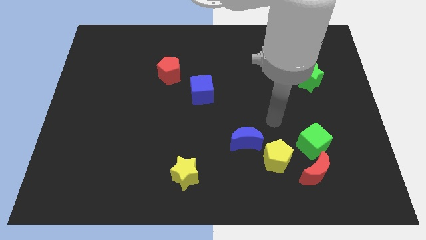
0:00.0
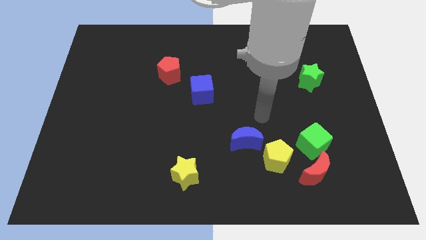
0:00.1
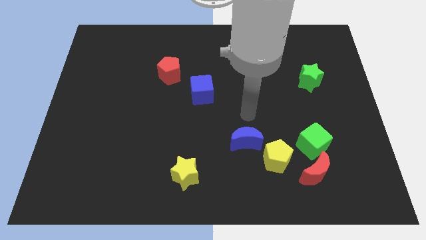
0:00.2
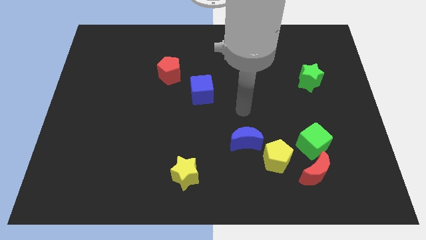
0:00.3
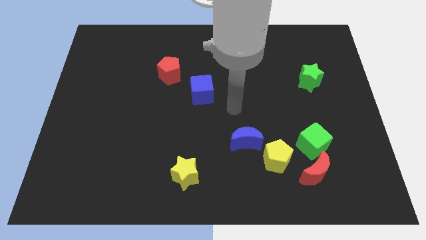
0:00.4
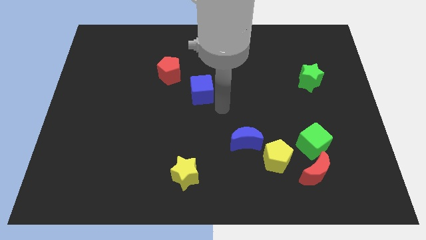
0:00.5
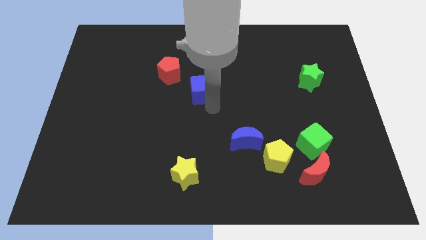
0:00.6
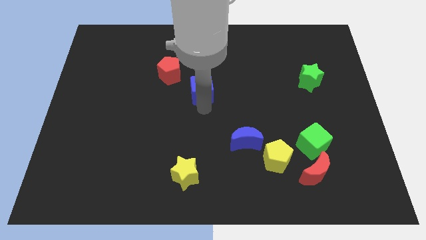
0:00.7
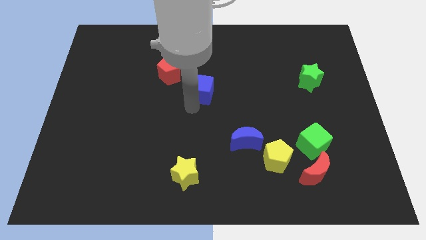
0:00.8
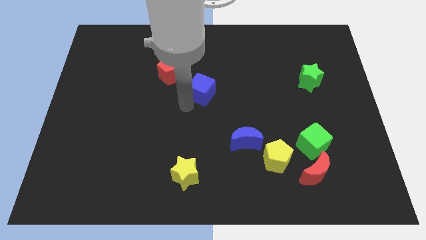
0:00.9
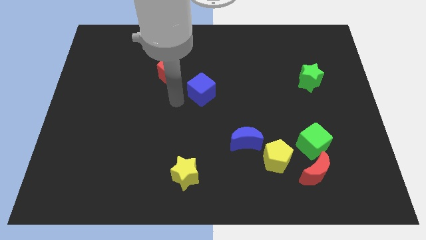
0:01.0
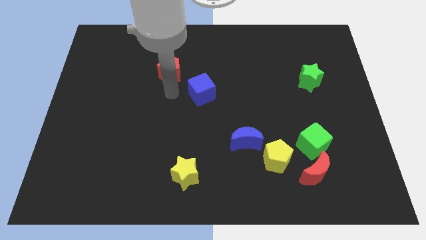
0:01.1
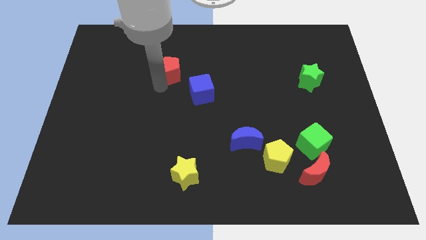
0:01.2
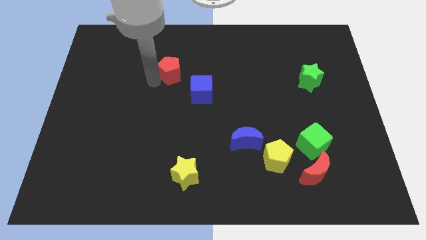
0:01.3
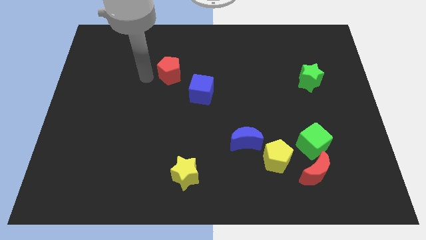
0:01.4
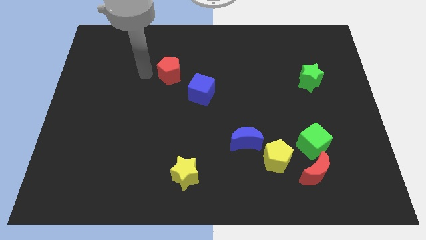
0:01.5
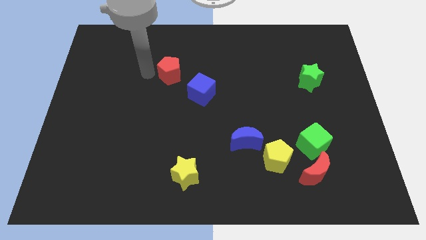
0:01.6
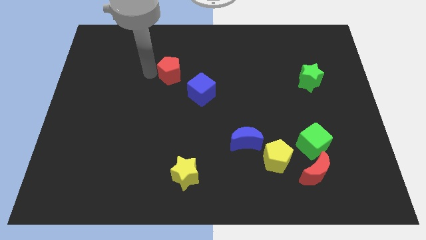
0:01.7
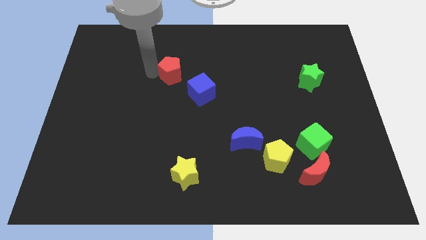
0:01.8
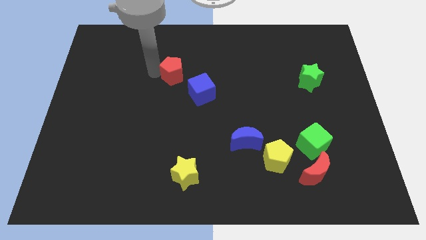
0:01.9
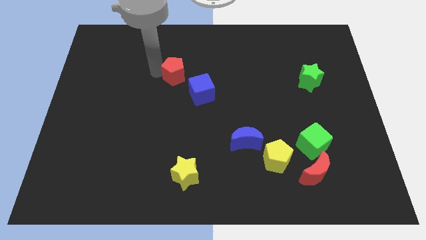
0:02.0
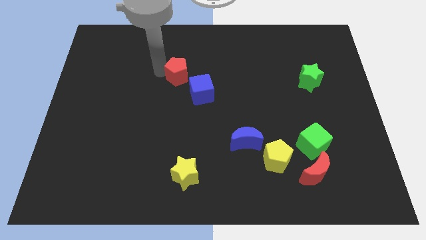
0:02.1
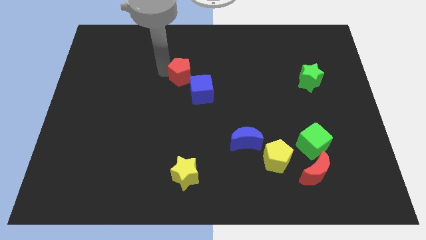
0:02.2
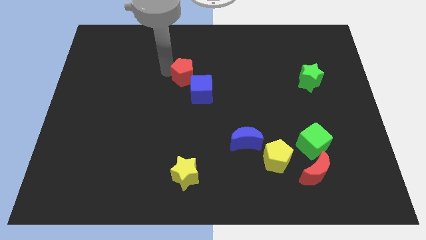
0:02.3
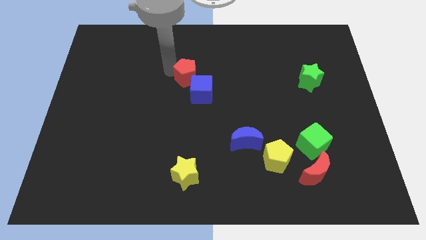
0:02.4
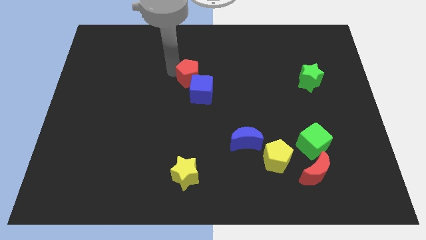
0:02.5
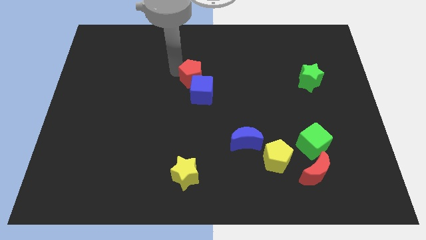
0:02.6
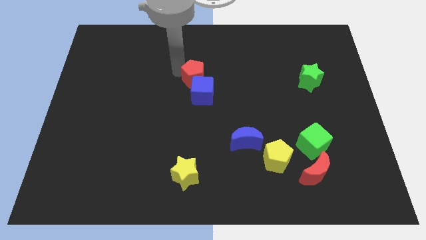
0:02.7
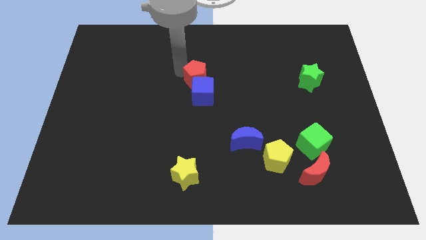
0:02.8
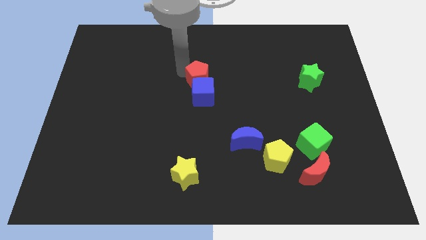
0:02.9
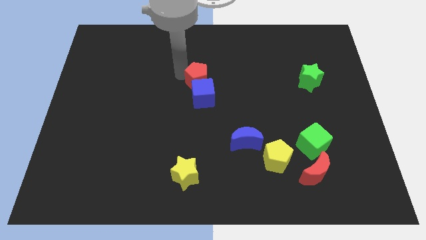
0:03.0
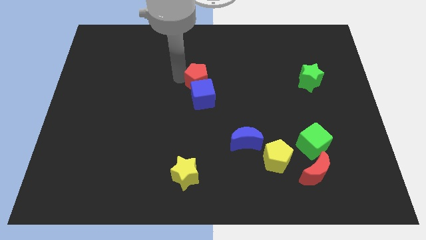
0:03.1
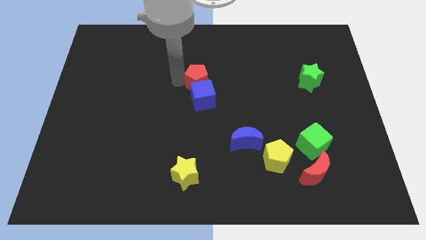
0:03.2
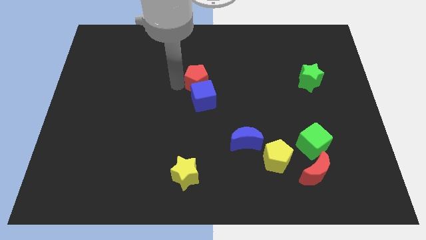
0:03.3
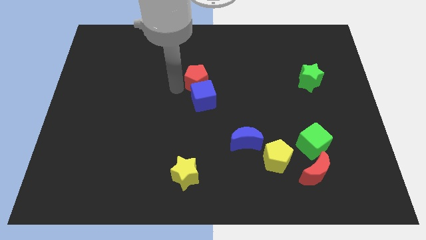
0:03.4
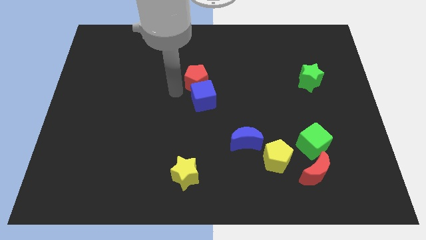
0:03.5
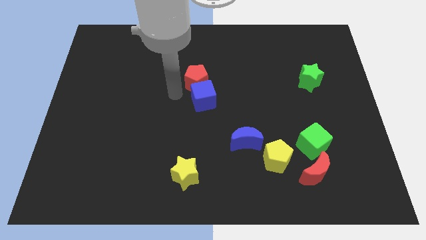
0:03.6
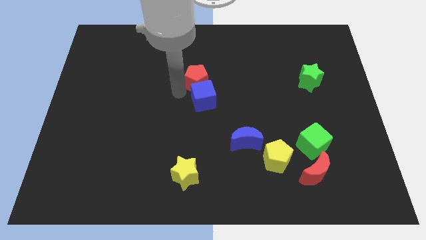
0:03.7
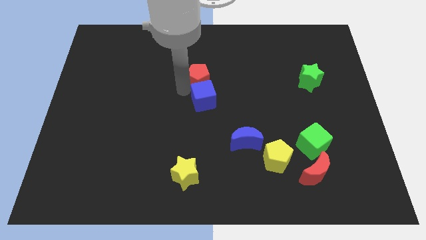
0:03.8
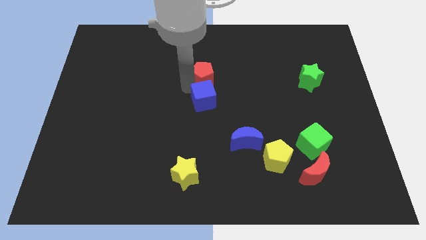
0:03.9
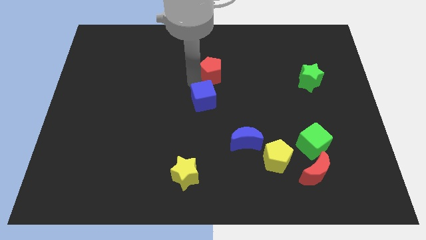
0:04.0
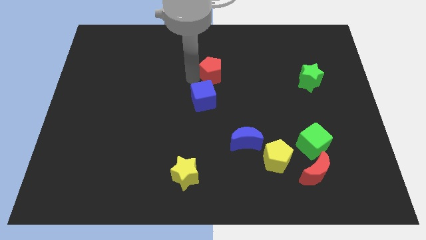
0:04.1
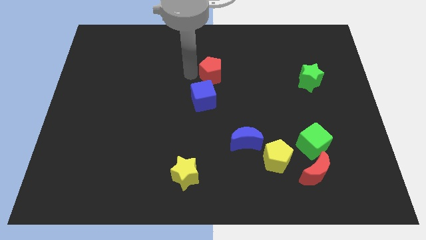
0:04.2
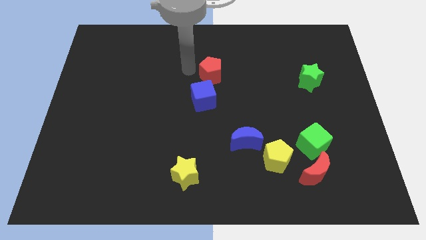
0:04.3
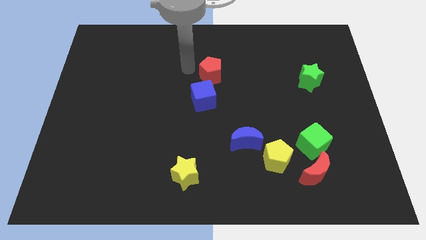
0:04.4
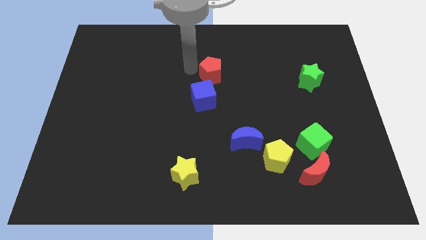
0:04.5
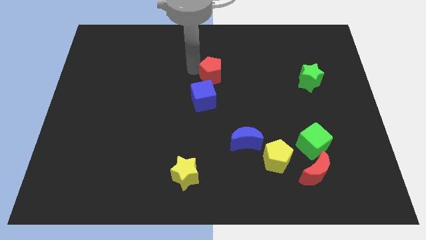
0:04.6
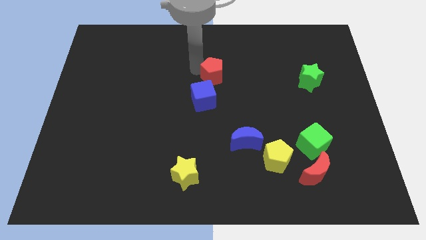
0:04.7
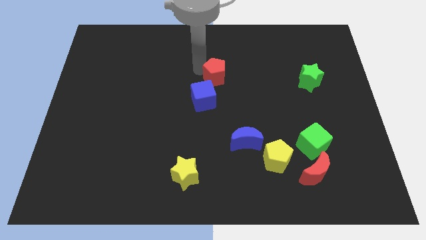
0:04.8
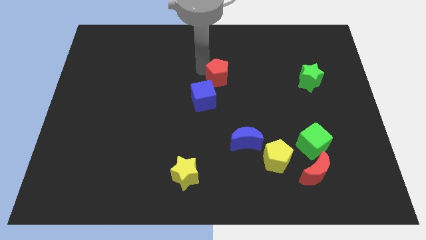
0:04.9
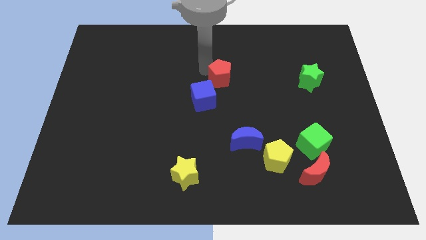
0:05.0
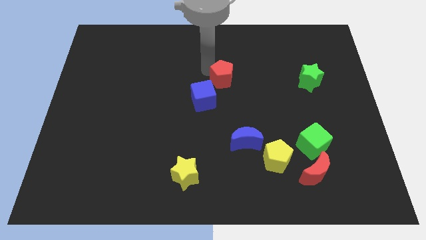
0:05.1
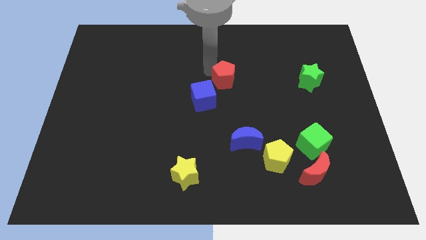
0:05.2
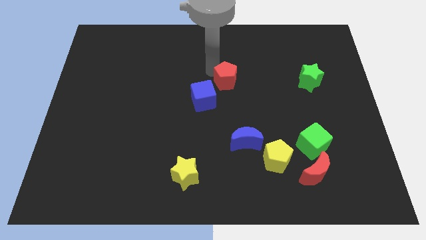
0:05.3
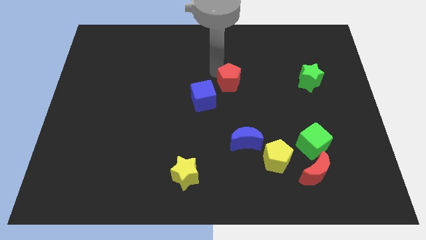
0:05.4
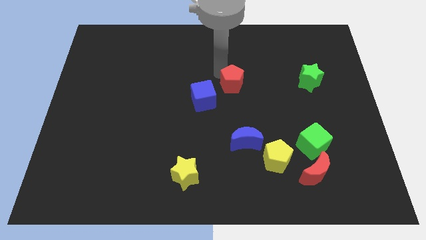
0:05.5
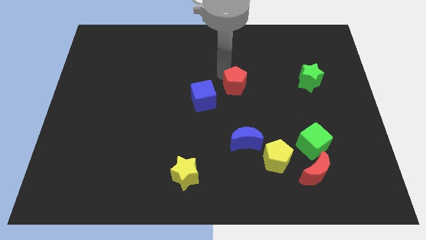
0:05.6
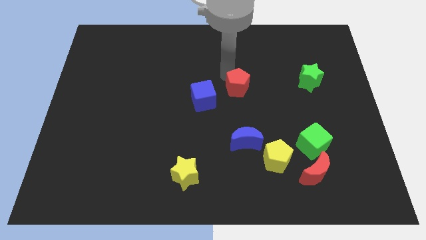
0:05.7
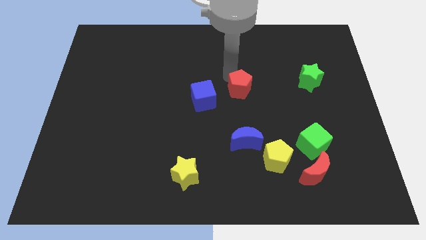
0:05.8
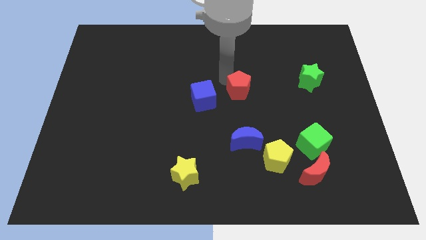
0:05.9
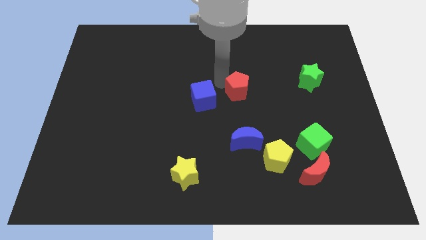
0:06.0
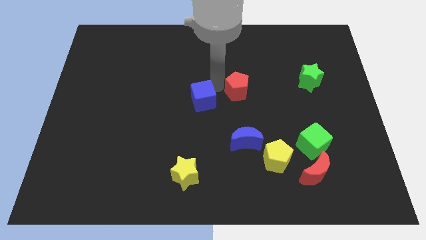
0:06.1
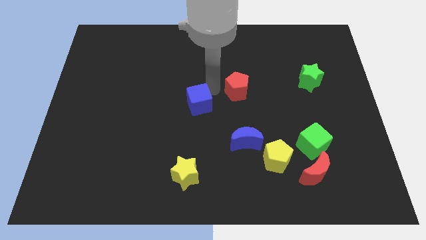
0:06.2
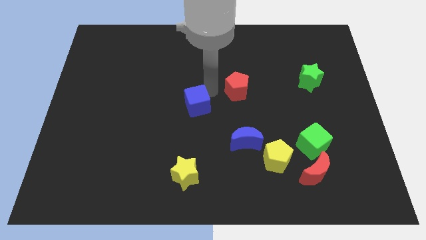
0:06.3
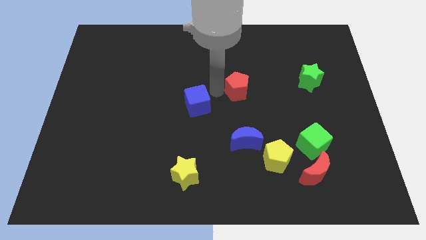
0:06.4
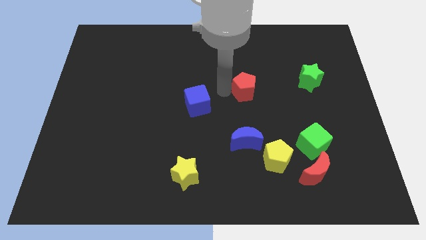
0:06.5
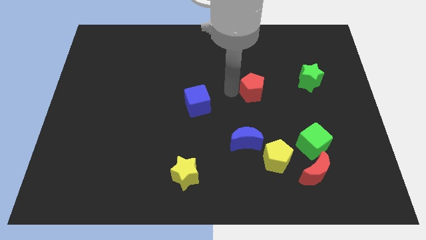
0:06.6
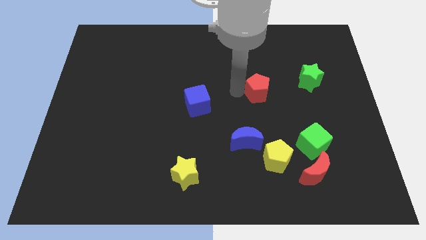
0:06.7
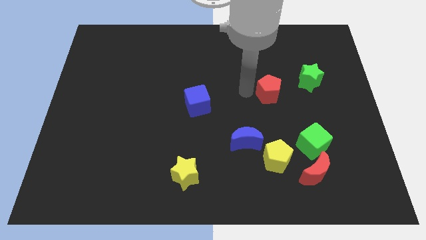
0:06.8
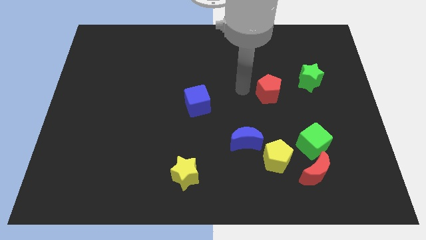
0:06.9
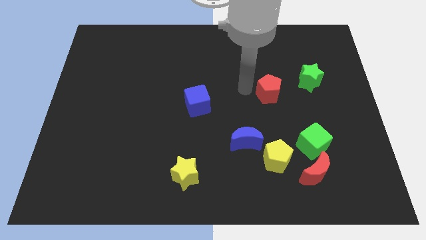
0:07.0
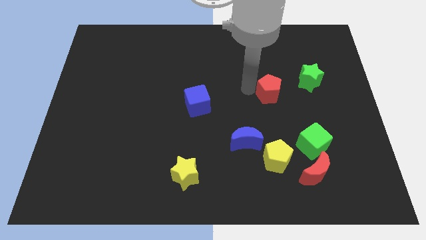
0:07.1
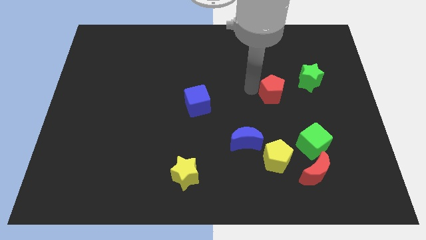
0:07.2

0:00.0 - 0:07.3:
push the red pentagon to the bottom left side of the green star
